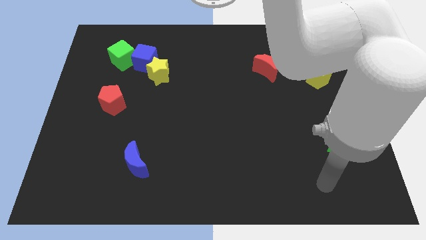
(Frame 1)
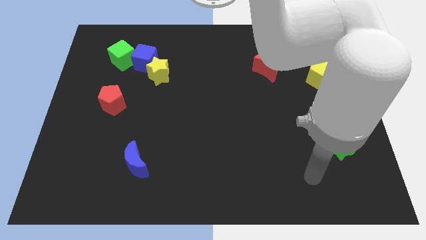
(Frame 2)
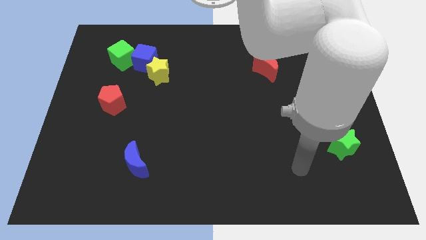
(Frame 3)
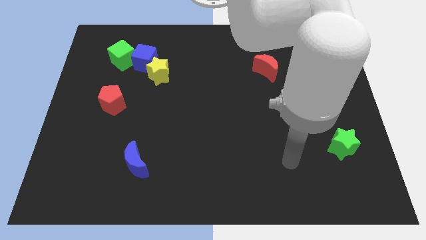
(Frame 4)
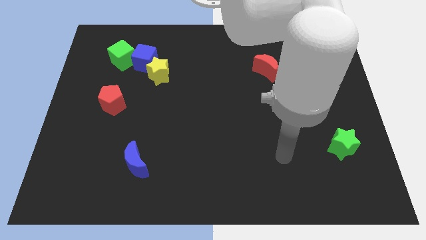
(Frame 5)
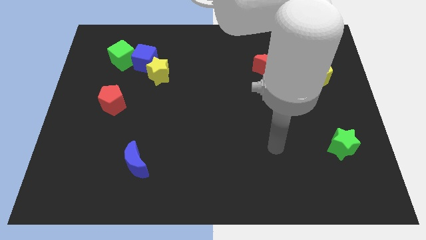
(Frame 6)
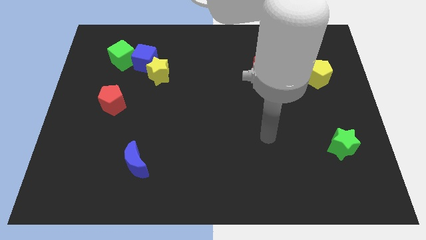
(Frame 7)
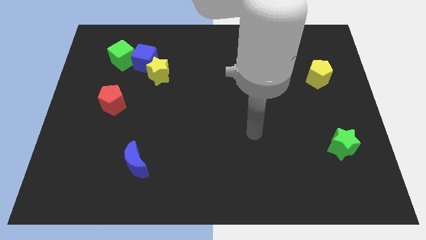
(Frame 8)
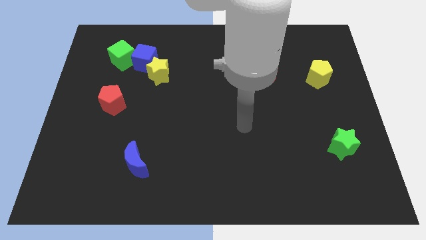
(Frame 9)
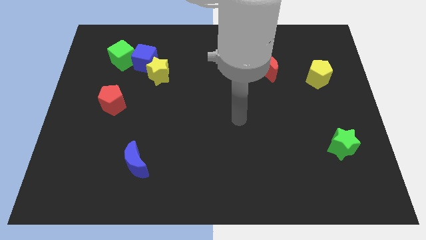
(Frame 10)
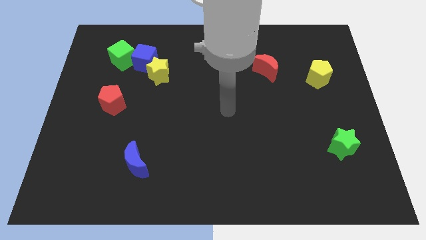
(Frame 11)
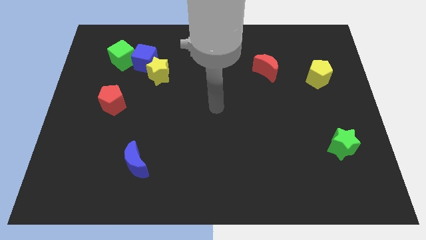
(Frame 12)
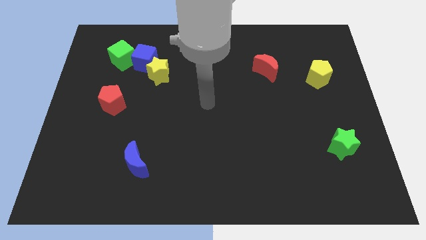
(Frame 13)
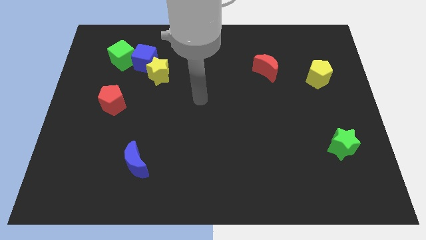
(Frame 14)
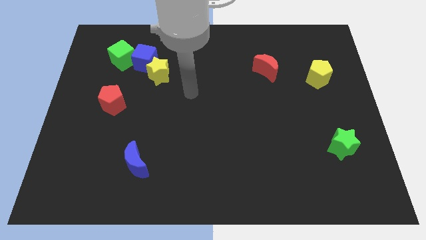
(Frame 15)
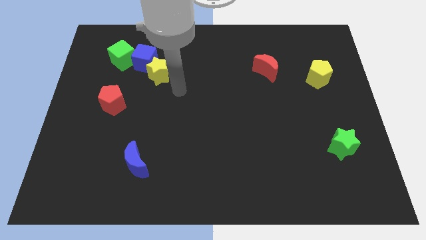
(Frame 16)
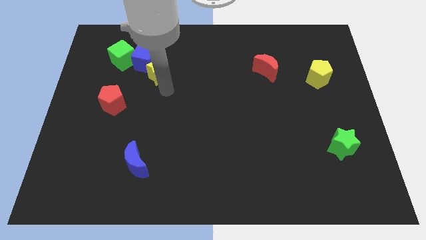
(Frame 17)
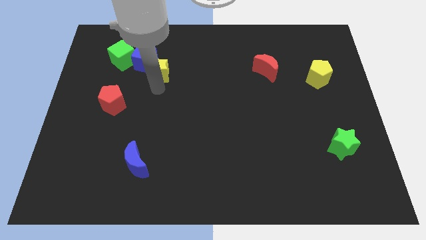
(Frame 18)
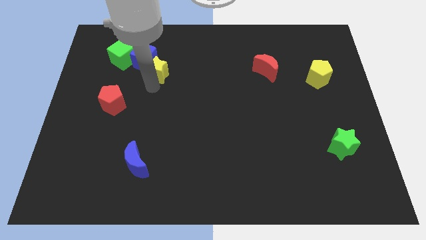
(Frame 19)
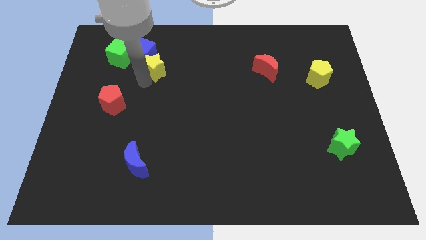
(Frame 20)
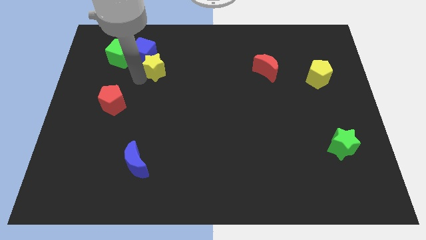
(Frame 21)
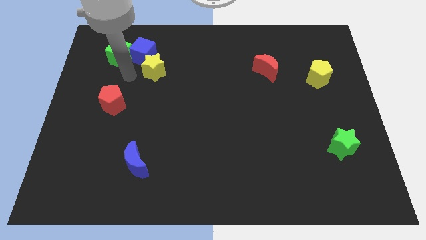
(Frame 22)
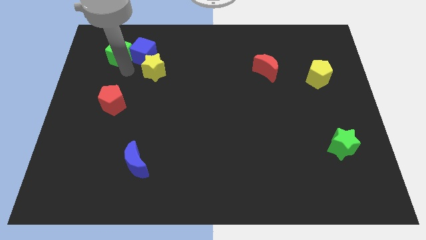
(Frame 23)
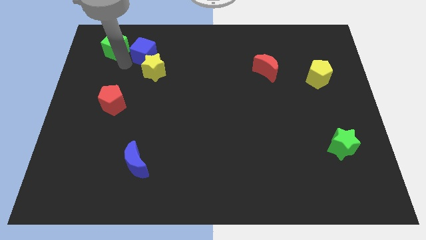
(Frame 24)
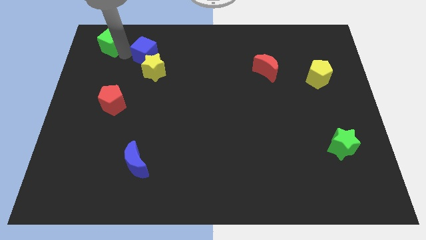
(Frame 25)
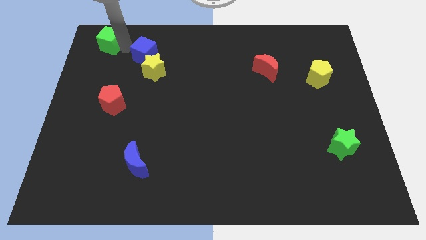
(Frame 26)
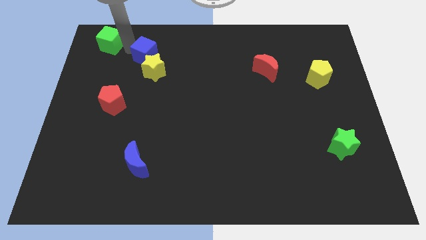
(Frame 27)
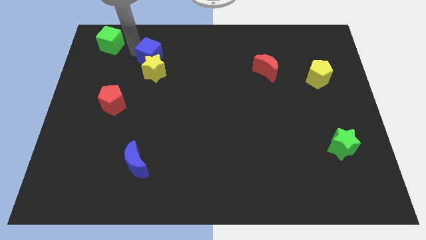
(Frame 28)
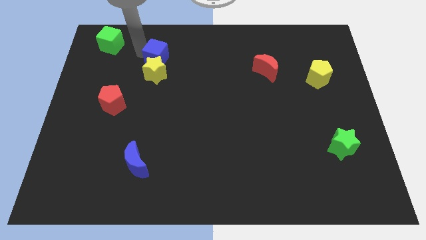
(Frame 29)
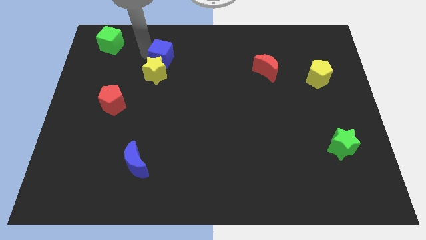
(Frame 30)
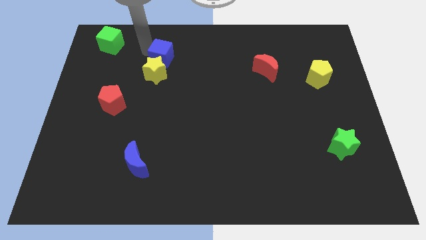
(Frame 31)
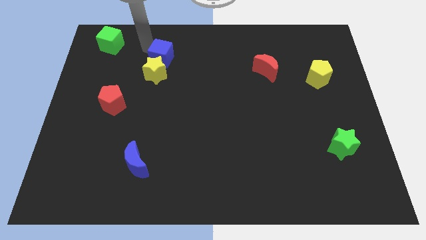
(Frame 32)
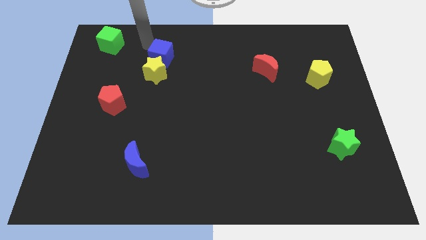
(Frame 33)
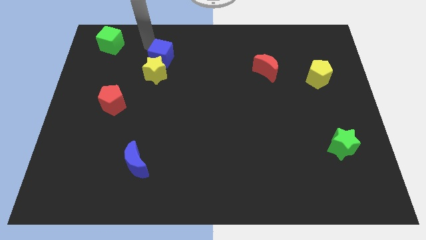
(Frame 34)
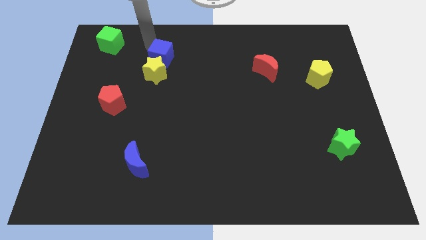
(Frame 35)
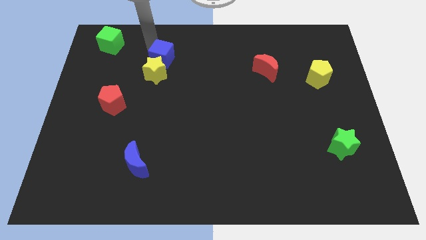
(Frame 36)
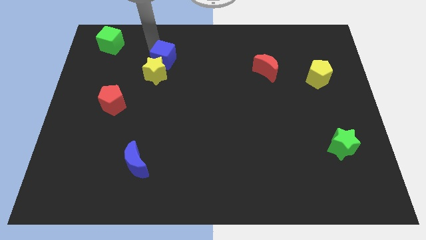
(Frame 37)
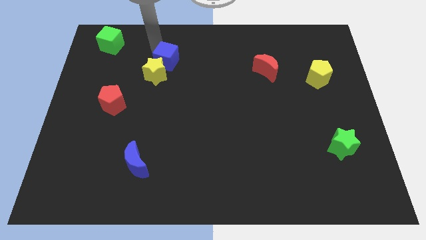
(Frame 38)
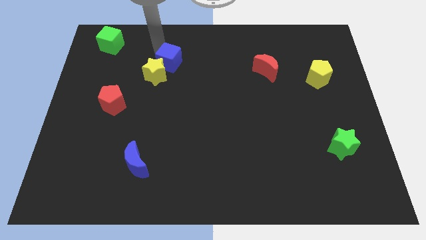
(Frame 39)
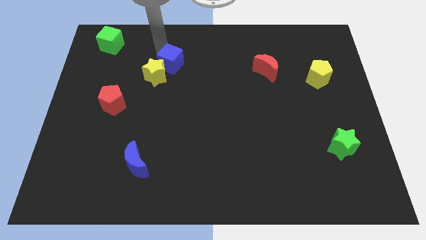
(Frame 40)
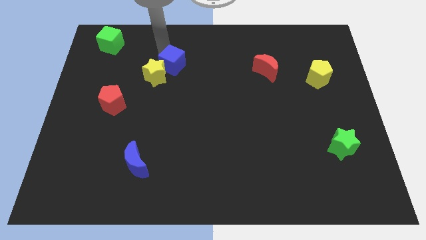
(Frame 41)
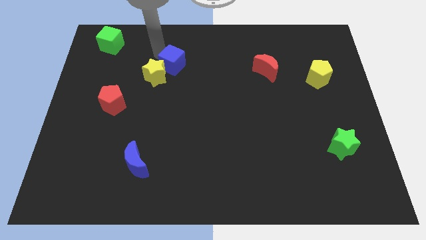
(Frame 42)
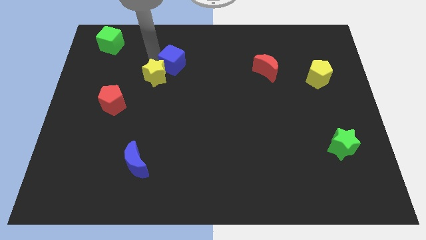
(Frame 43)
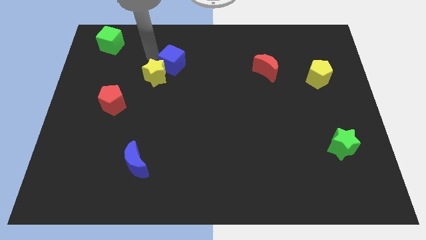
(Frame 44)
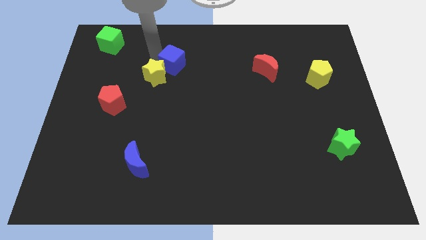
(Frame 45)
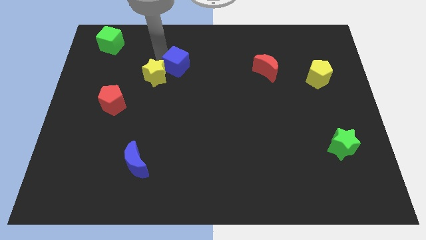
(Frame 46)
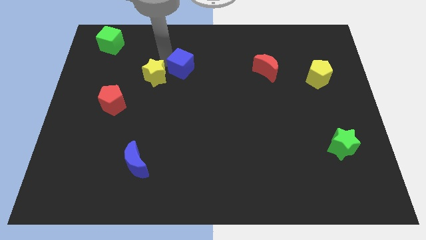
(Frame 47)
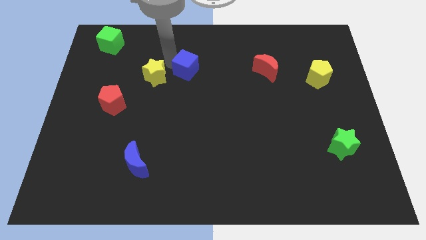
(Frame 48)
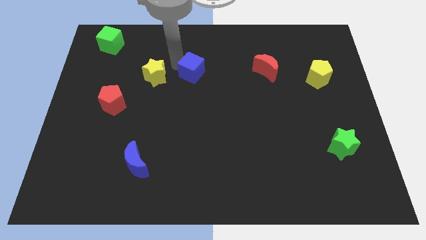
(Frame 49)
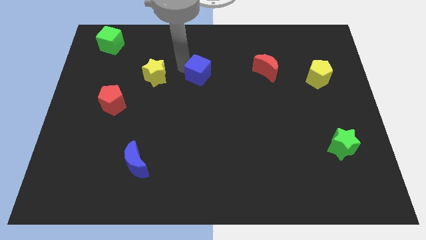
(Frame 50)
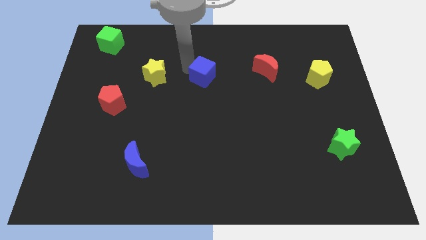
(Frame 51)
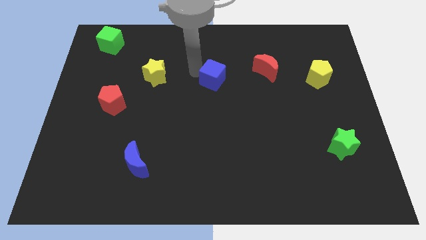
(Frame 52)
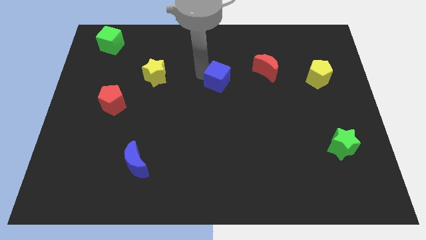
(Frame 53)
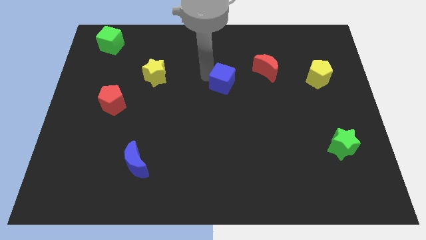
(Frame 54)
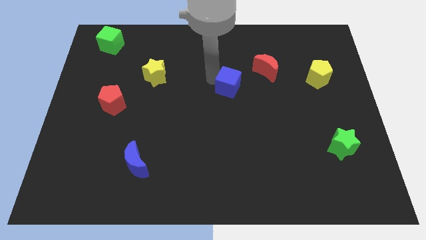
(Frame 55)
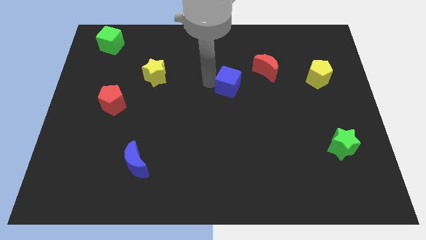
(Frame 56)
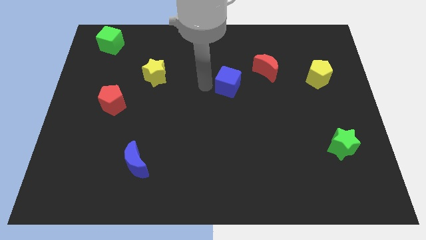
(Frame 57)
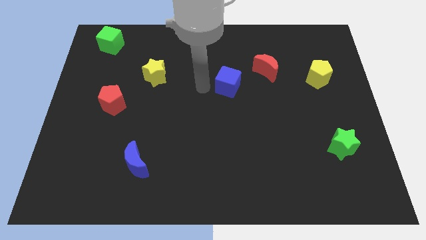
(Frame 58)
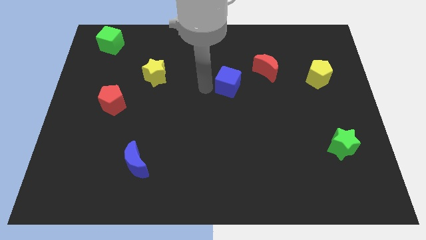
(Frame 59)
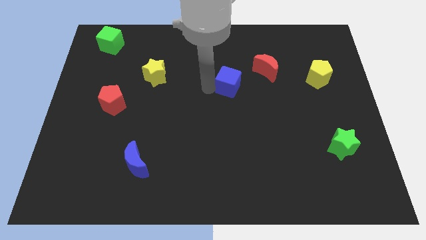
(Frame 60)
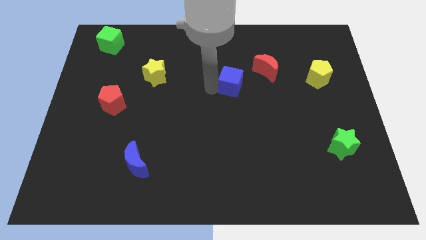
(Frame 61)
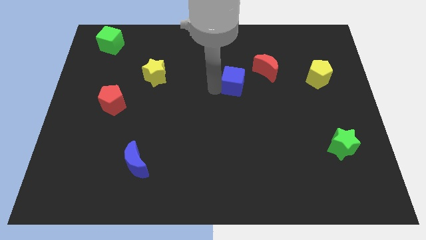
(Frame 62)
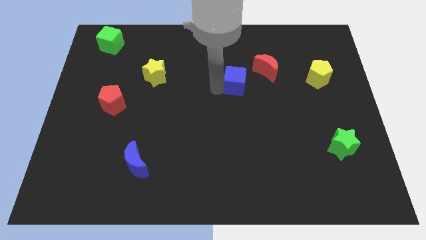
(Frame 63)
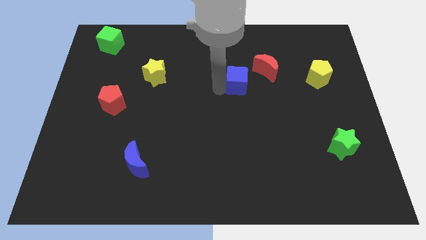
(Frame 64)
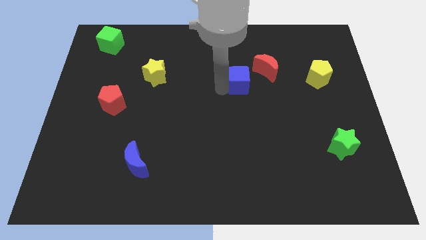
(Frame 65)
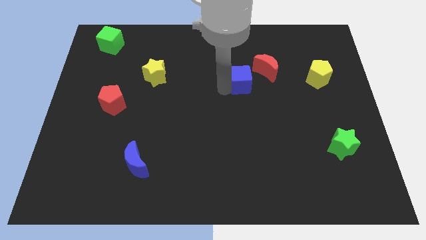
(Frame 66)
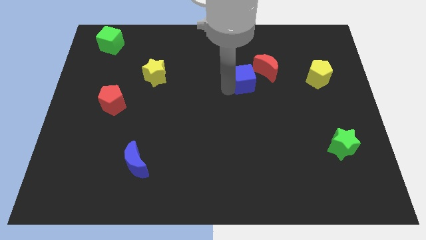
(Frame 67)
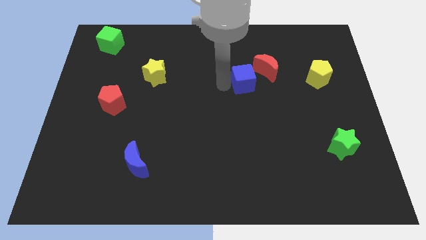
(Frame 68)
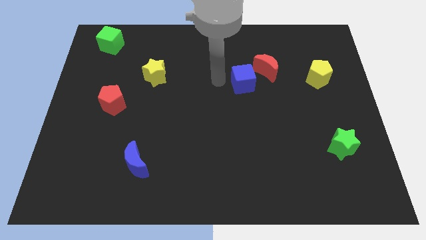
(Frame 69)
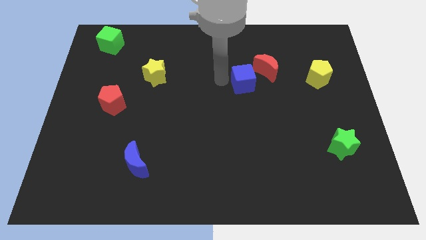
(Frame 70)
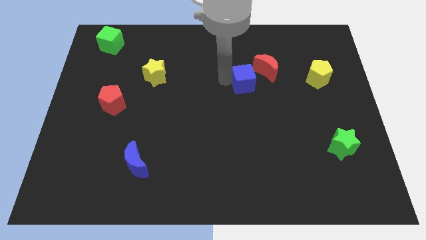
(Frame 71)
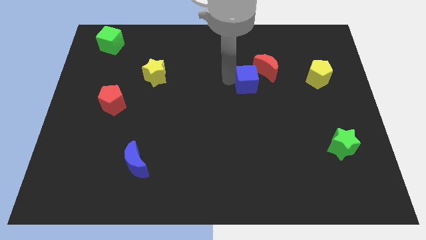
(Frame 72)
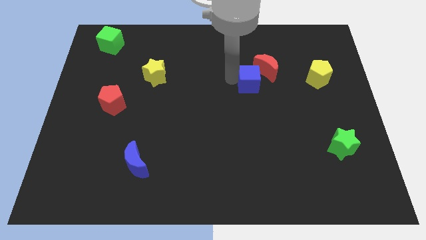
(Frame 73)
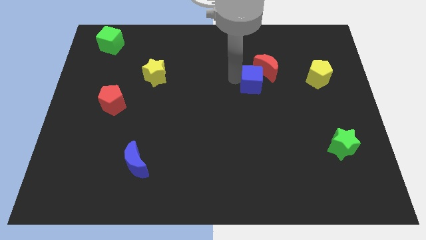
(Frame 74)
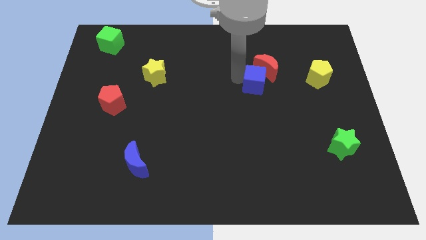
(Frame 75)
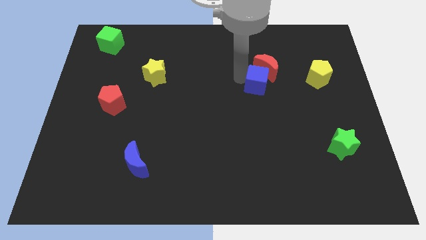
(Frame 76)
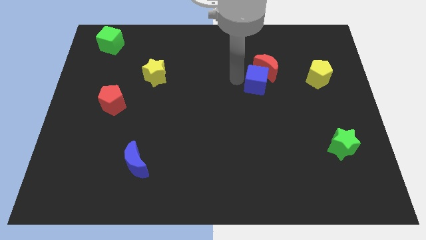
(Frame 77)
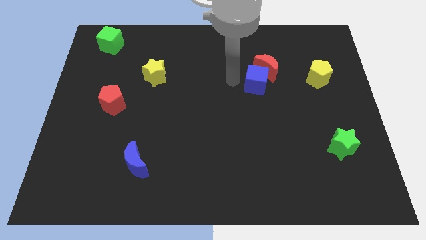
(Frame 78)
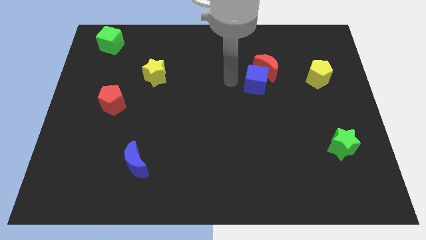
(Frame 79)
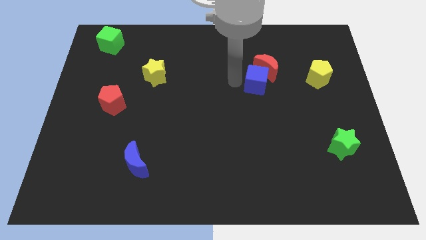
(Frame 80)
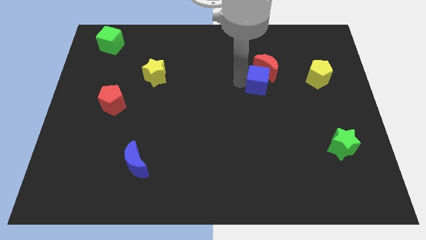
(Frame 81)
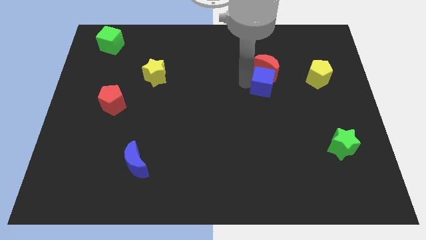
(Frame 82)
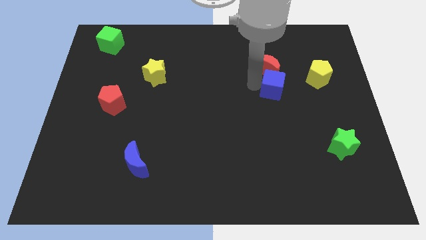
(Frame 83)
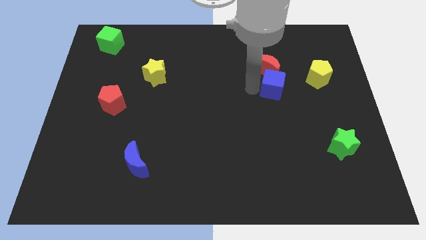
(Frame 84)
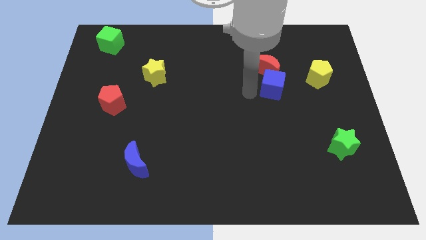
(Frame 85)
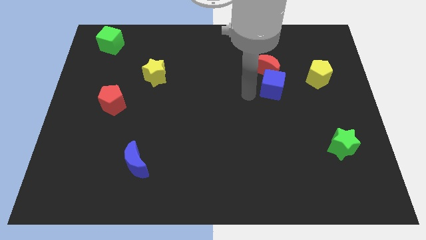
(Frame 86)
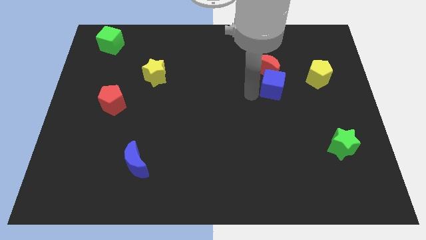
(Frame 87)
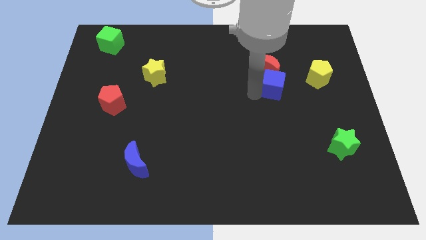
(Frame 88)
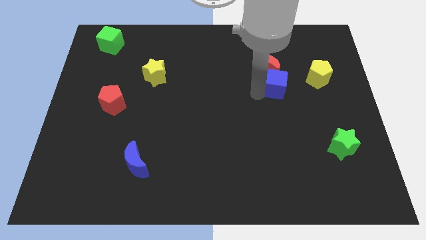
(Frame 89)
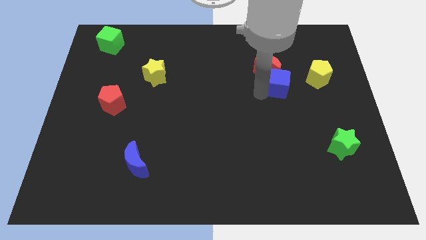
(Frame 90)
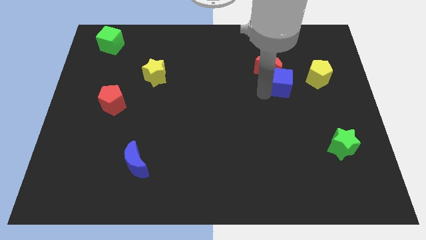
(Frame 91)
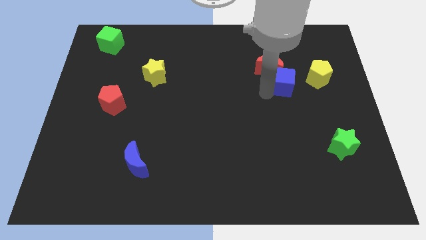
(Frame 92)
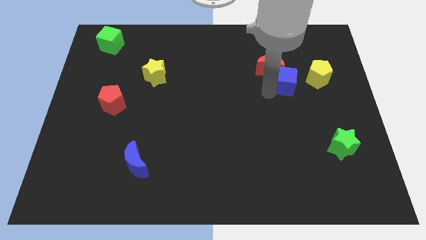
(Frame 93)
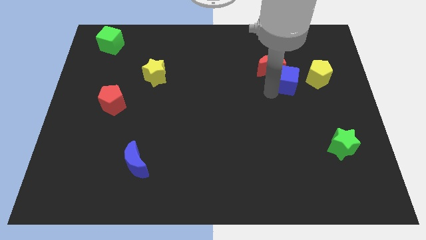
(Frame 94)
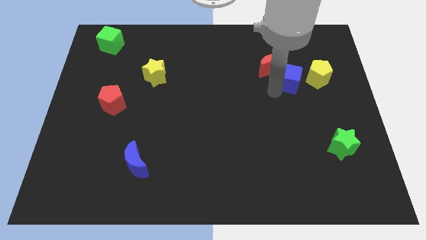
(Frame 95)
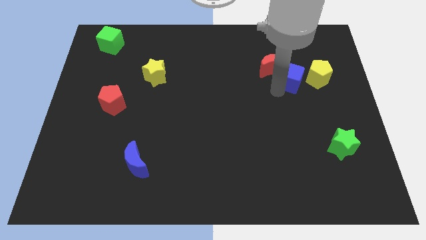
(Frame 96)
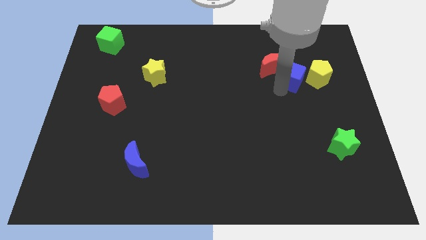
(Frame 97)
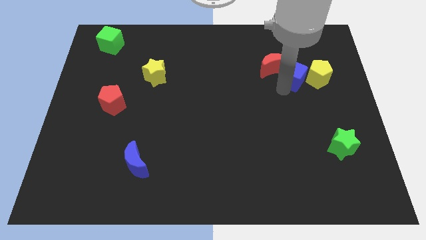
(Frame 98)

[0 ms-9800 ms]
move the blue cube to the yellow pentagon
